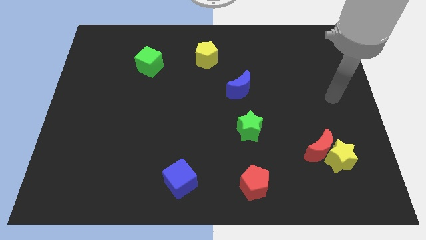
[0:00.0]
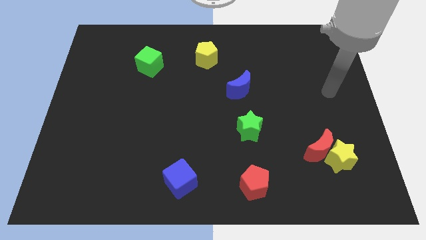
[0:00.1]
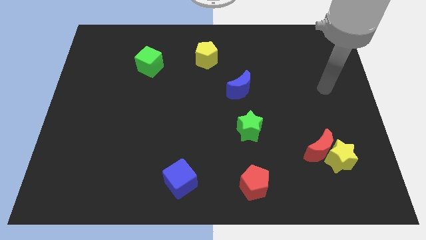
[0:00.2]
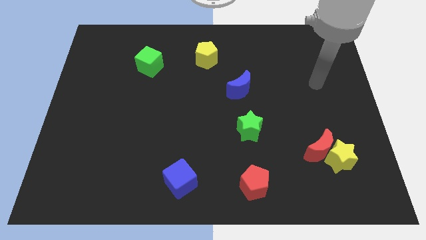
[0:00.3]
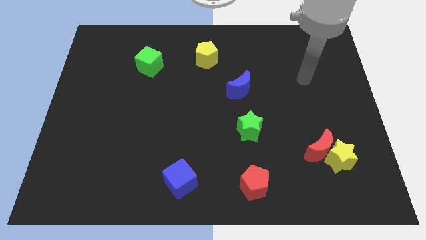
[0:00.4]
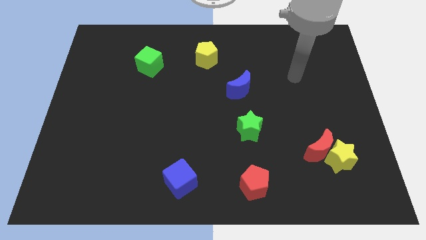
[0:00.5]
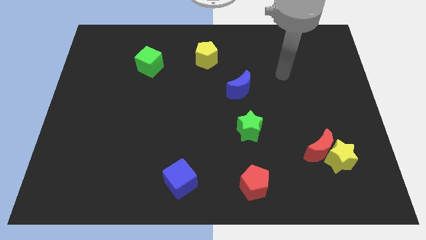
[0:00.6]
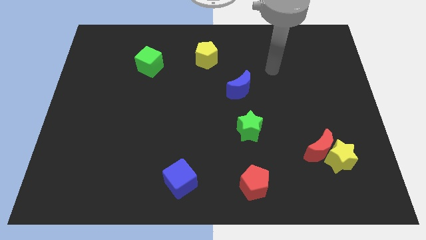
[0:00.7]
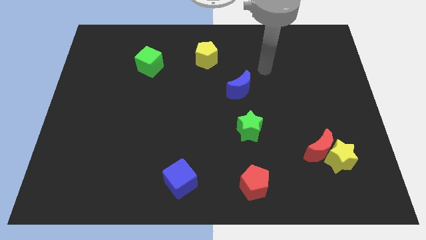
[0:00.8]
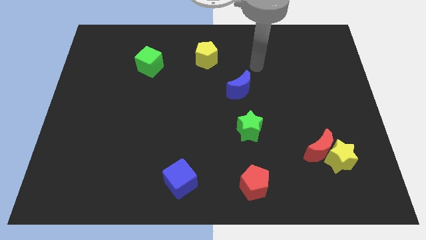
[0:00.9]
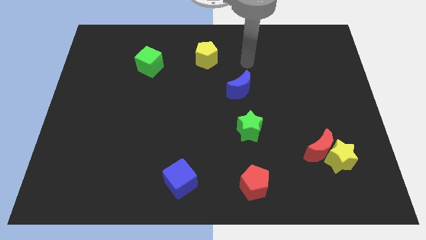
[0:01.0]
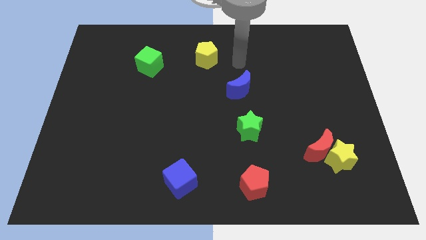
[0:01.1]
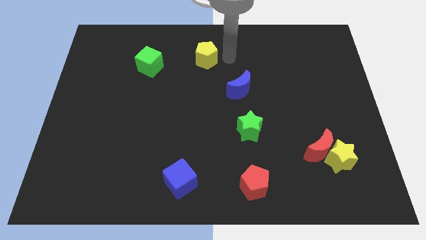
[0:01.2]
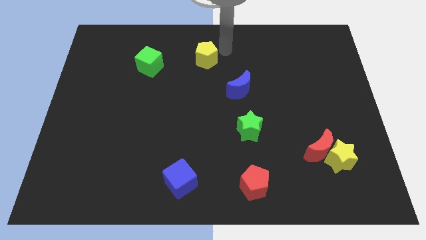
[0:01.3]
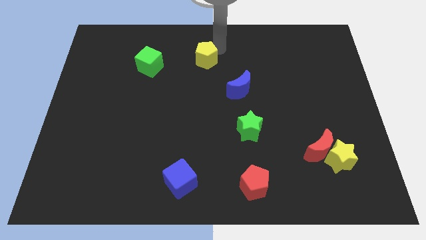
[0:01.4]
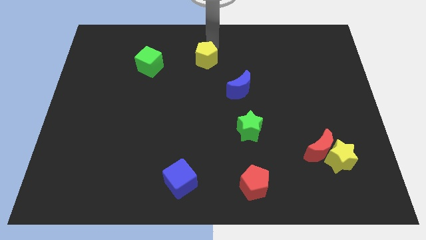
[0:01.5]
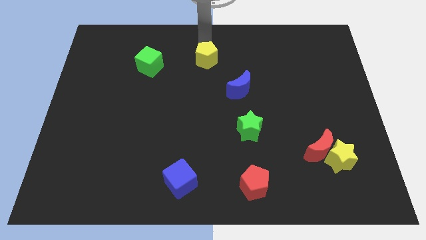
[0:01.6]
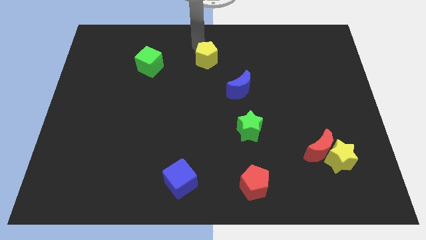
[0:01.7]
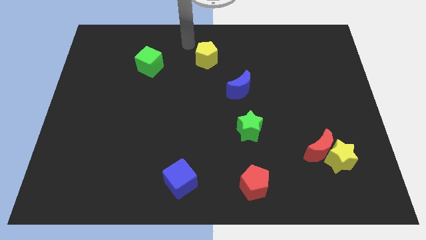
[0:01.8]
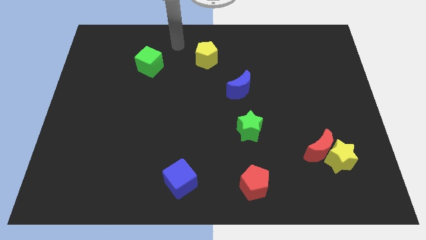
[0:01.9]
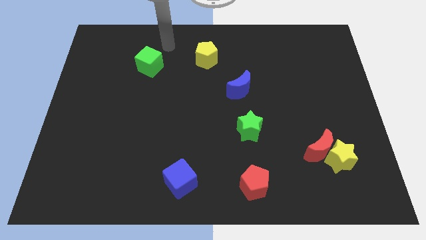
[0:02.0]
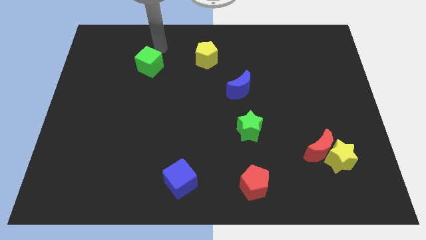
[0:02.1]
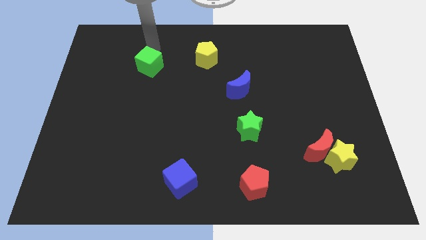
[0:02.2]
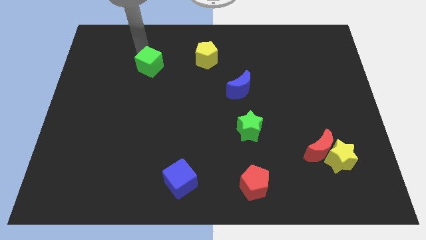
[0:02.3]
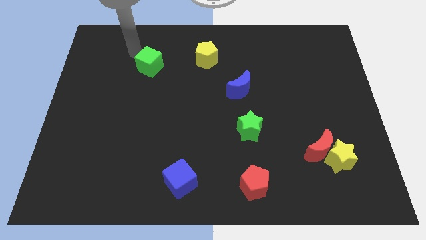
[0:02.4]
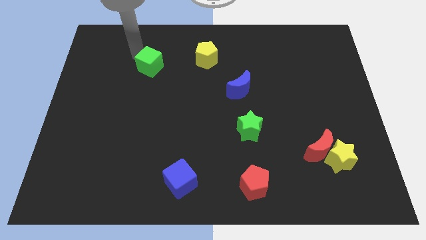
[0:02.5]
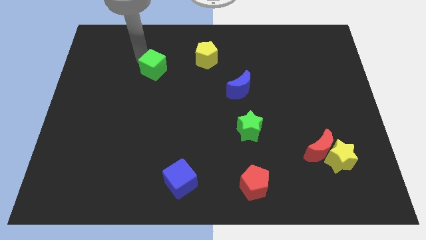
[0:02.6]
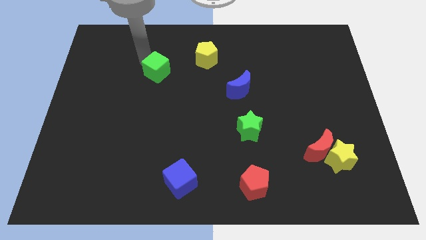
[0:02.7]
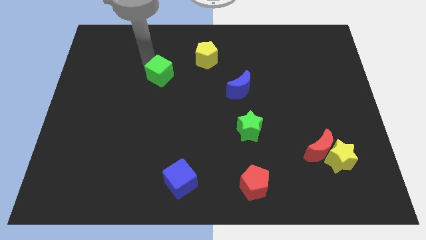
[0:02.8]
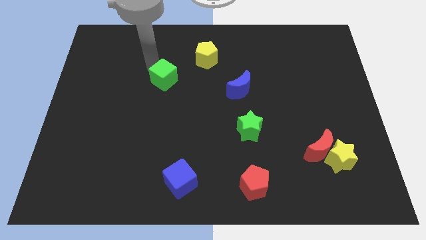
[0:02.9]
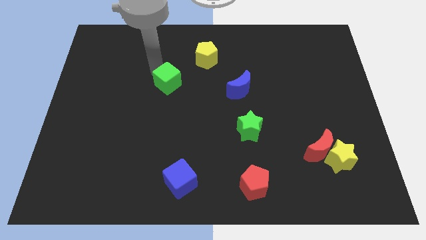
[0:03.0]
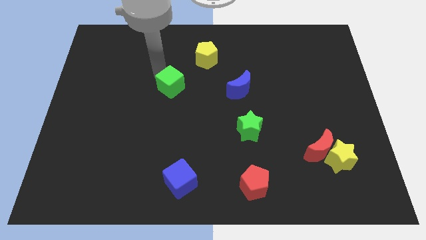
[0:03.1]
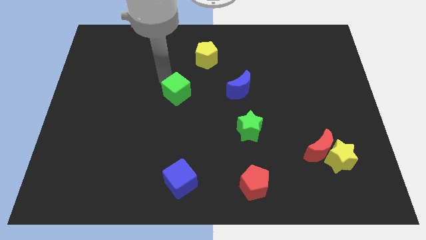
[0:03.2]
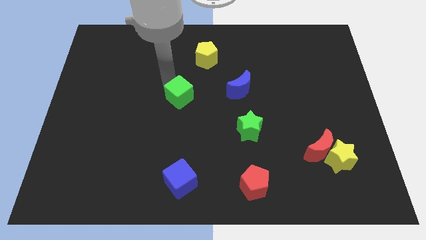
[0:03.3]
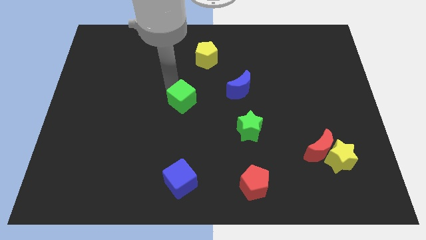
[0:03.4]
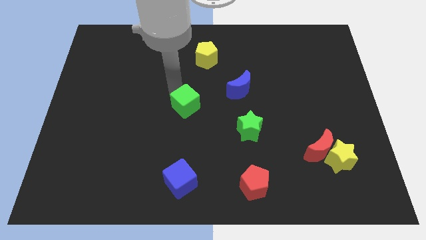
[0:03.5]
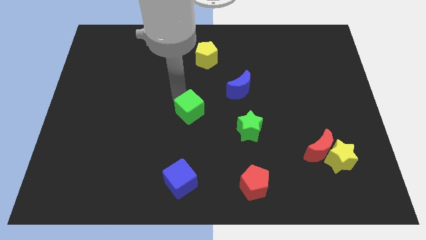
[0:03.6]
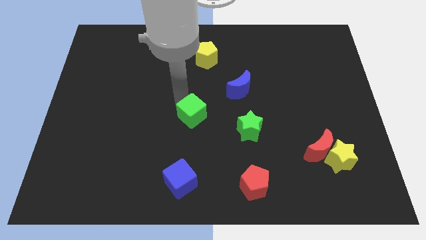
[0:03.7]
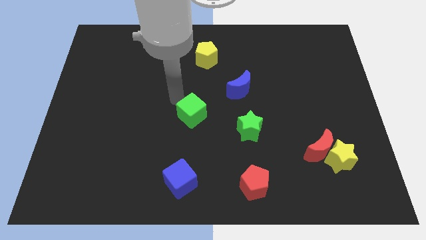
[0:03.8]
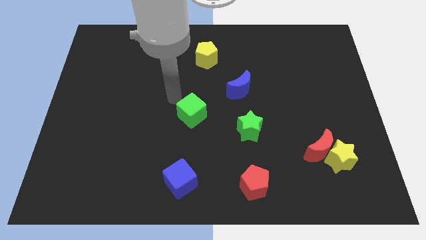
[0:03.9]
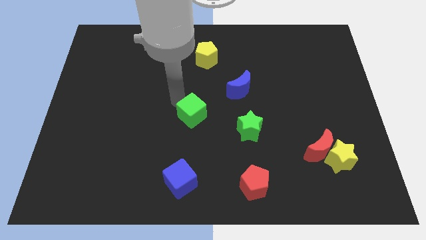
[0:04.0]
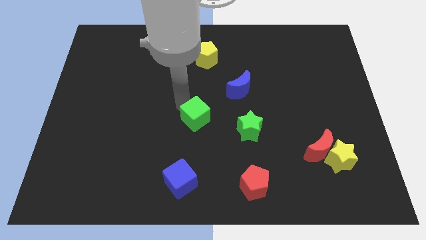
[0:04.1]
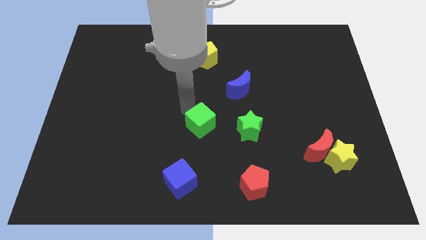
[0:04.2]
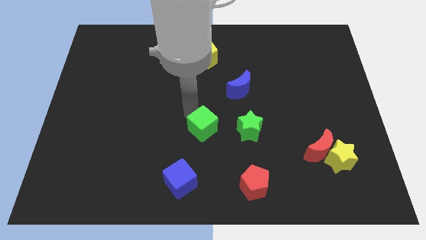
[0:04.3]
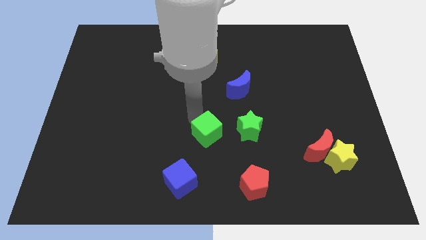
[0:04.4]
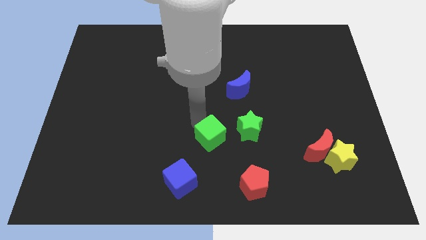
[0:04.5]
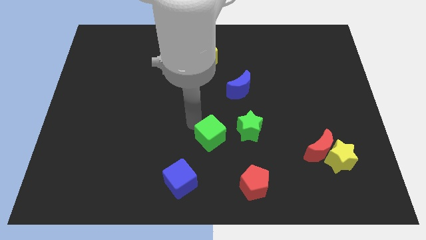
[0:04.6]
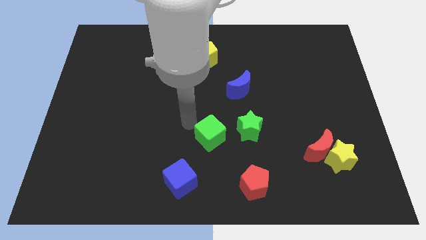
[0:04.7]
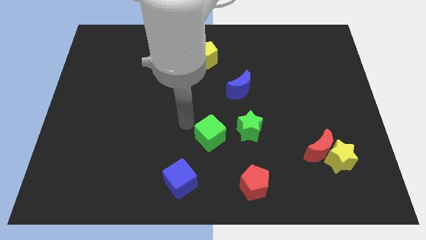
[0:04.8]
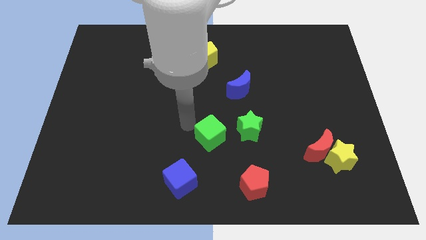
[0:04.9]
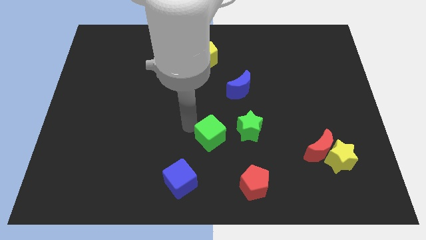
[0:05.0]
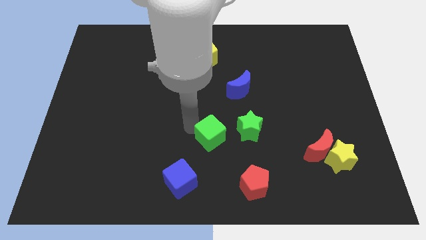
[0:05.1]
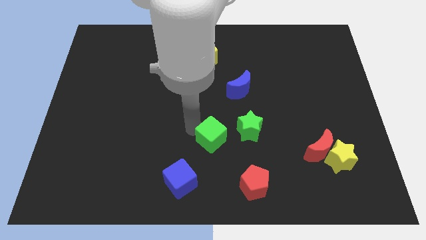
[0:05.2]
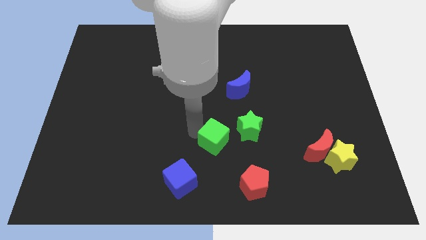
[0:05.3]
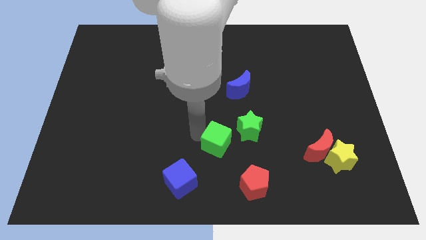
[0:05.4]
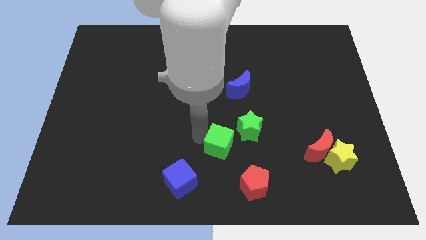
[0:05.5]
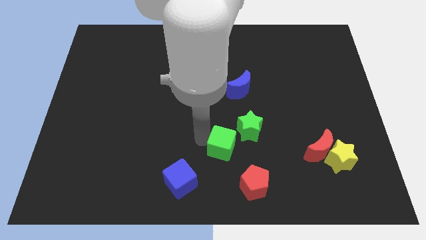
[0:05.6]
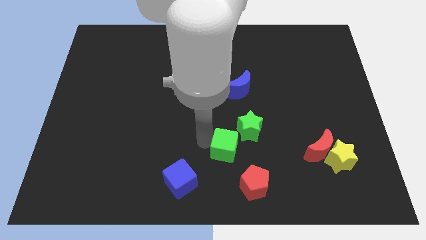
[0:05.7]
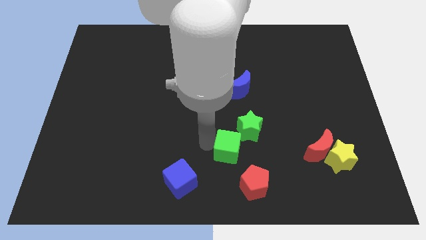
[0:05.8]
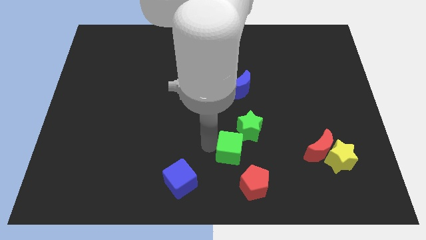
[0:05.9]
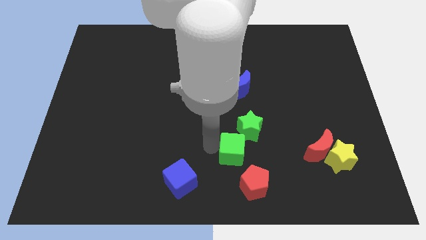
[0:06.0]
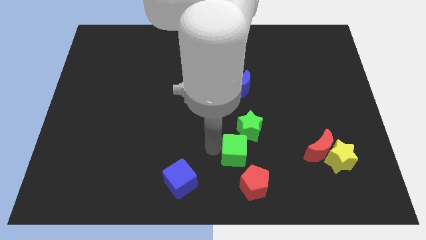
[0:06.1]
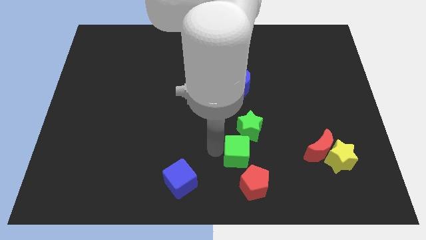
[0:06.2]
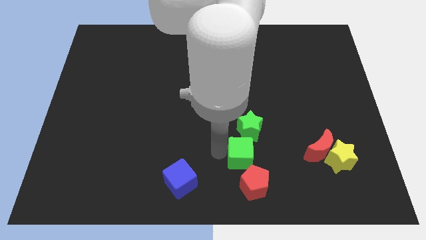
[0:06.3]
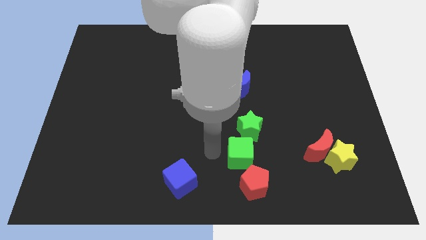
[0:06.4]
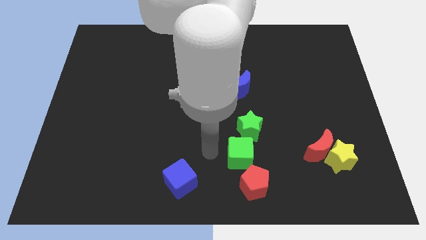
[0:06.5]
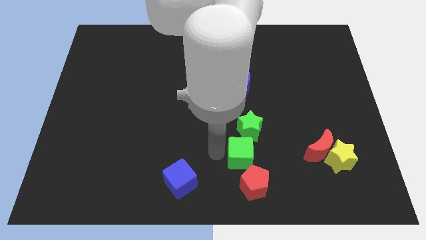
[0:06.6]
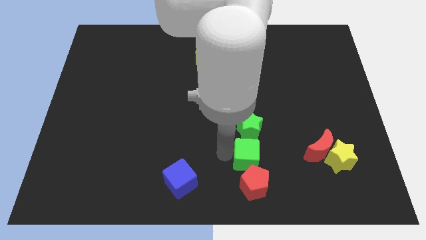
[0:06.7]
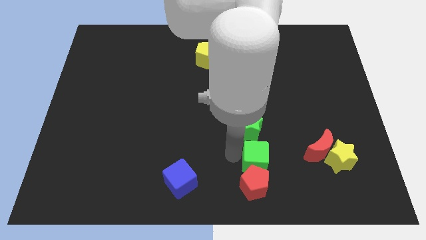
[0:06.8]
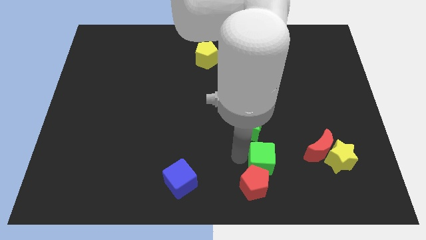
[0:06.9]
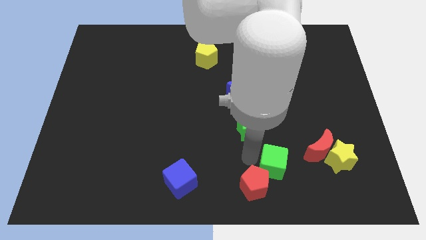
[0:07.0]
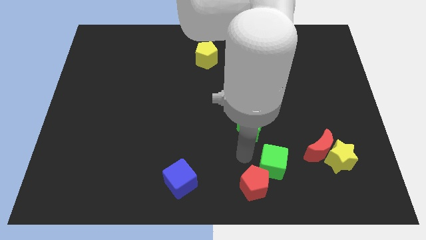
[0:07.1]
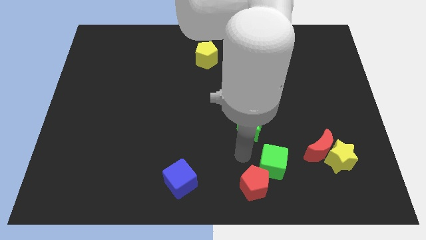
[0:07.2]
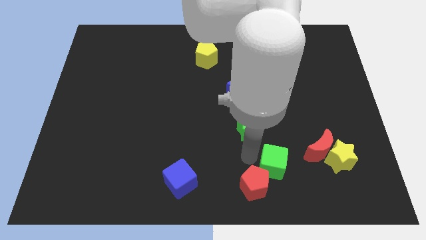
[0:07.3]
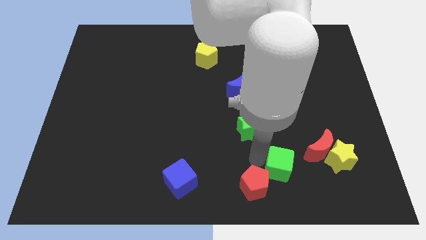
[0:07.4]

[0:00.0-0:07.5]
put the green cube to the bottom left of the red moon

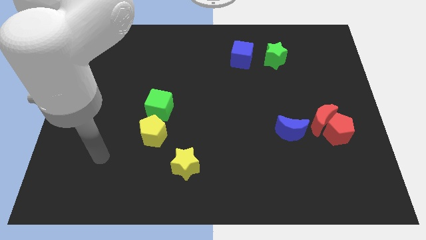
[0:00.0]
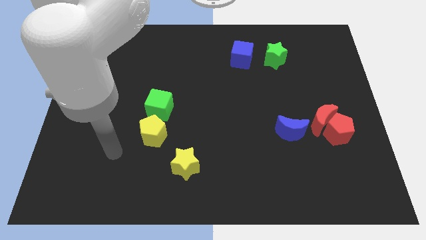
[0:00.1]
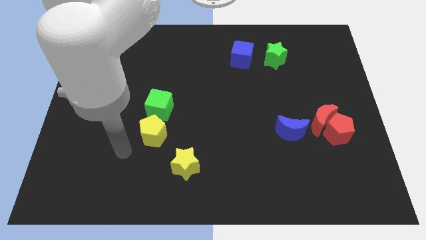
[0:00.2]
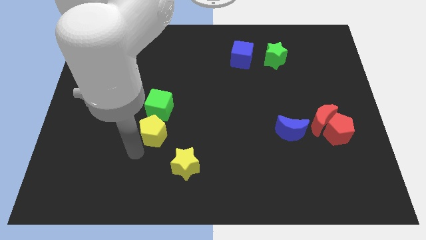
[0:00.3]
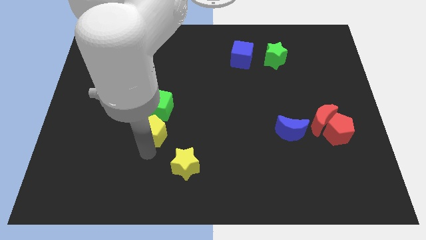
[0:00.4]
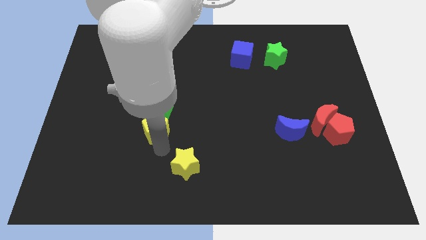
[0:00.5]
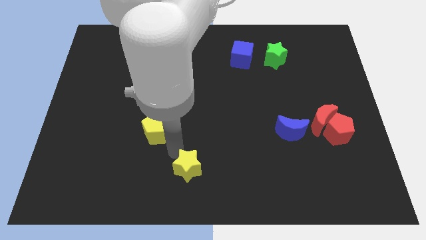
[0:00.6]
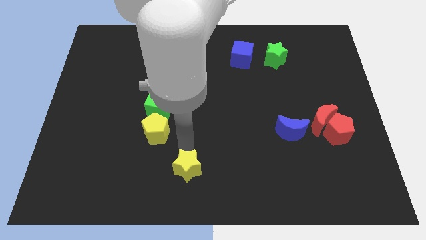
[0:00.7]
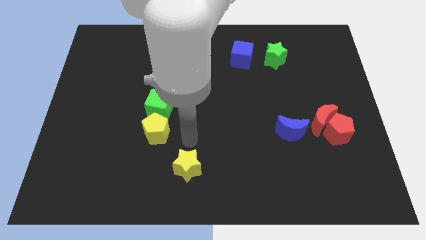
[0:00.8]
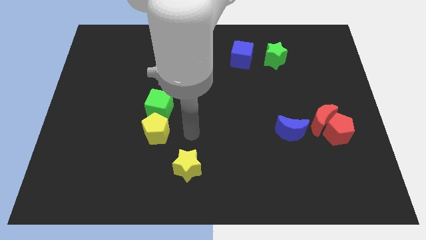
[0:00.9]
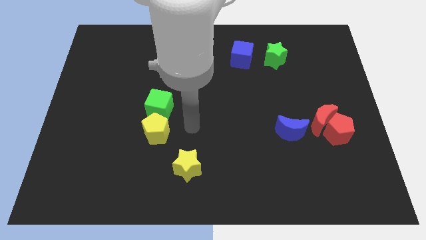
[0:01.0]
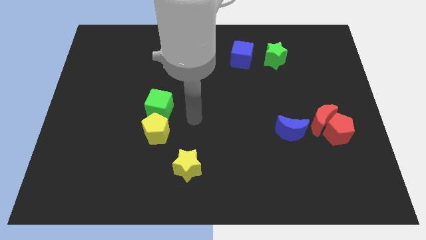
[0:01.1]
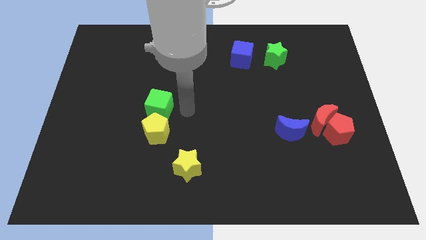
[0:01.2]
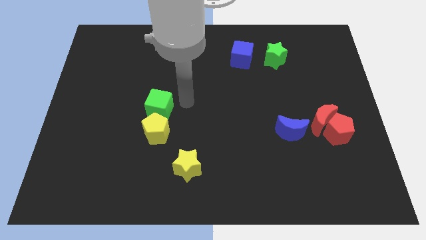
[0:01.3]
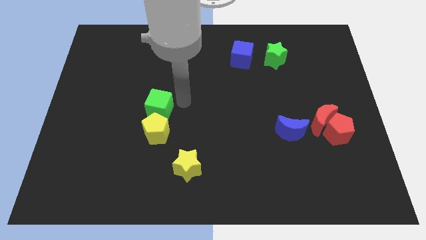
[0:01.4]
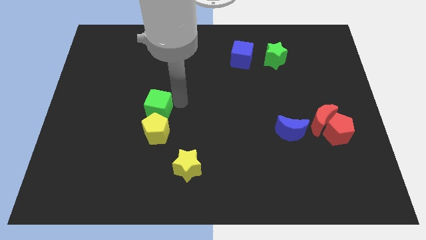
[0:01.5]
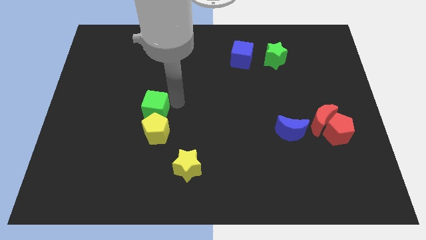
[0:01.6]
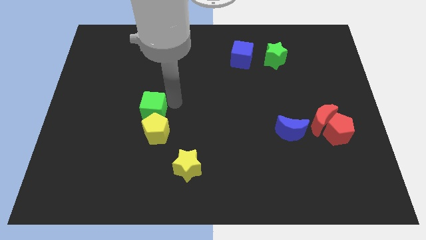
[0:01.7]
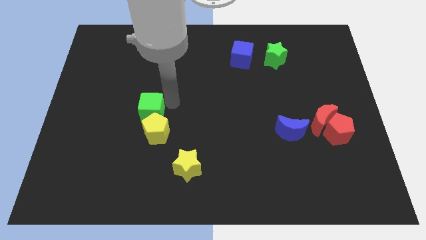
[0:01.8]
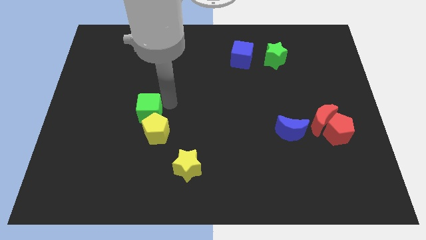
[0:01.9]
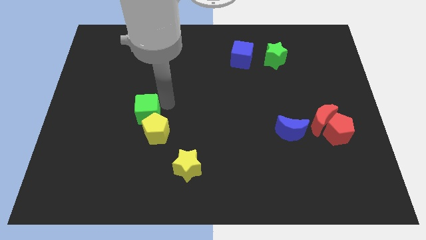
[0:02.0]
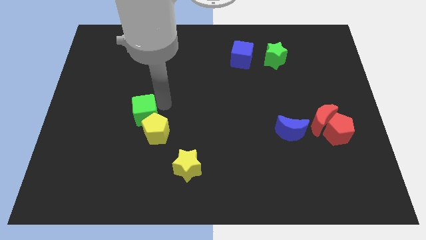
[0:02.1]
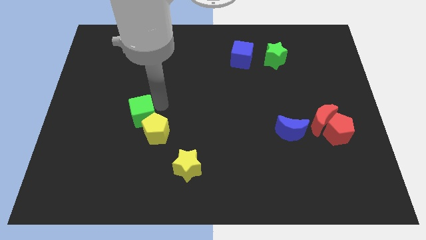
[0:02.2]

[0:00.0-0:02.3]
slide the green cube just left of the yellow pentagon
